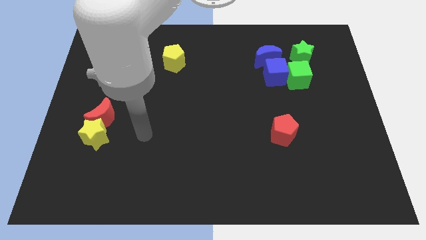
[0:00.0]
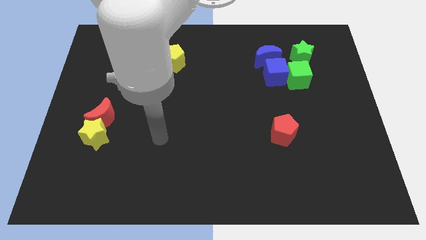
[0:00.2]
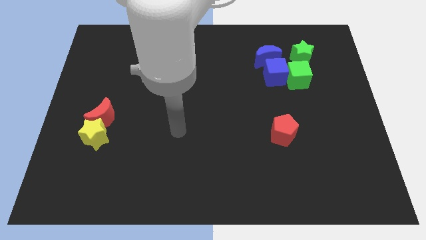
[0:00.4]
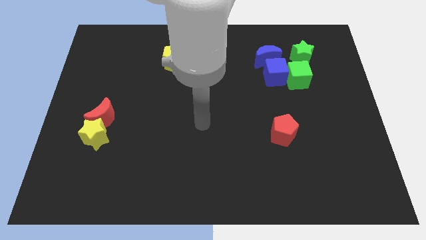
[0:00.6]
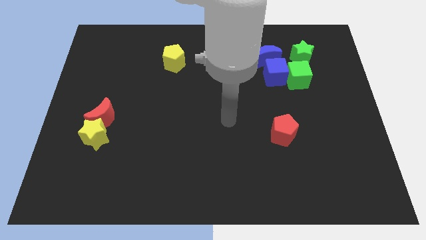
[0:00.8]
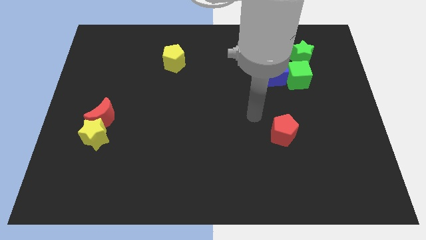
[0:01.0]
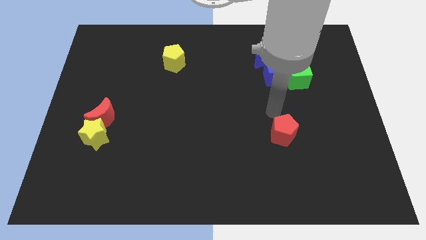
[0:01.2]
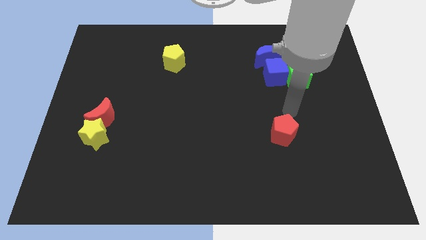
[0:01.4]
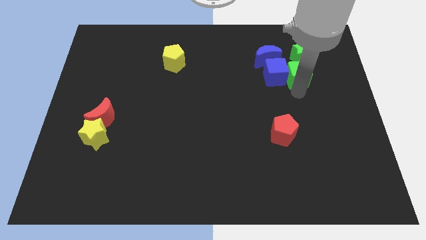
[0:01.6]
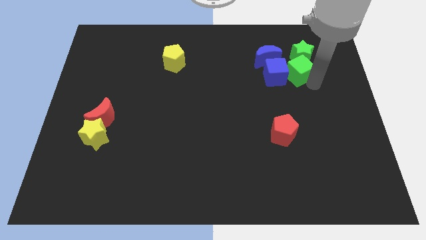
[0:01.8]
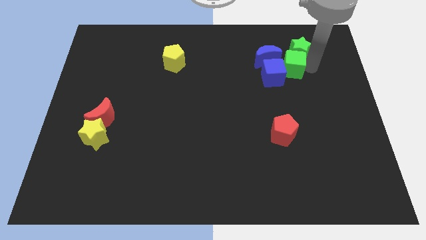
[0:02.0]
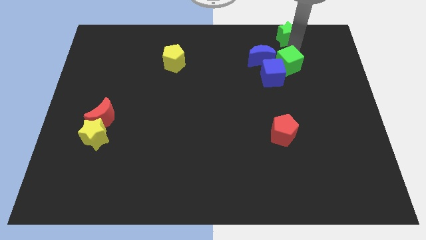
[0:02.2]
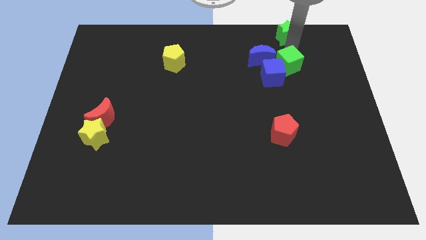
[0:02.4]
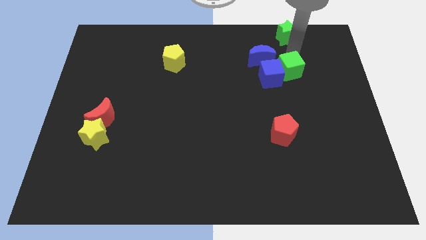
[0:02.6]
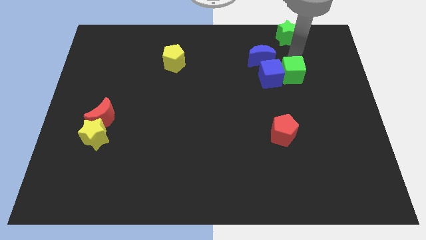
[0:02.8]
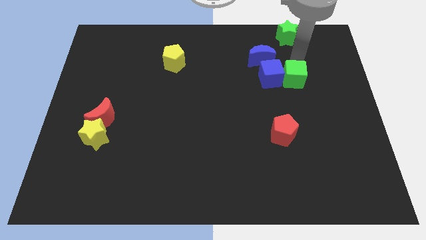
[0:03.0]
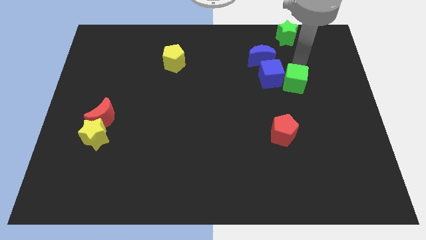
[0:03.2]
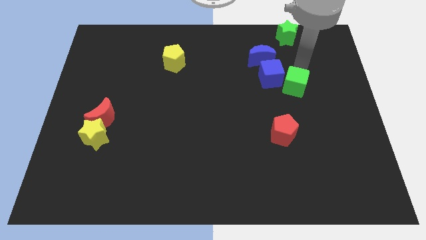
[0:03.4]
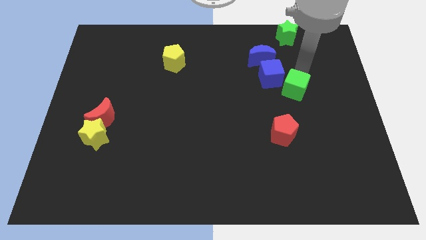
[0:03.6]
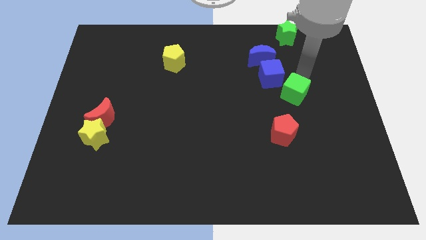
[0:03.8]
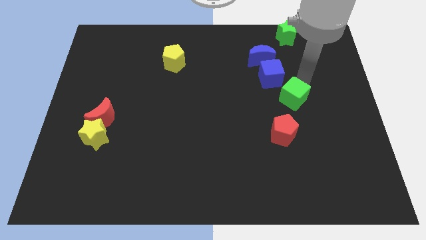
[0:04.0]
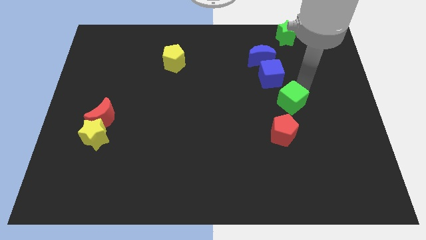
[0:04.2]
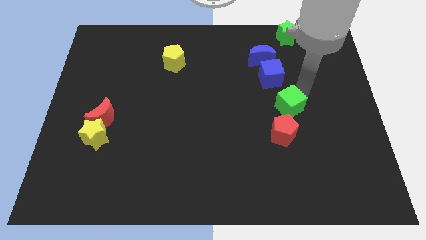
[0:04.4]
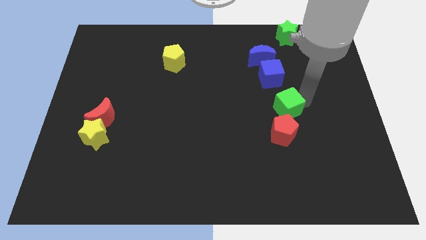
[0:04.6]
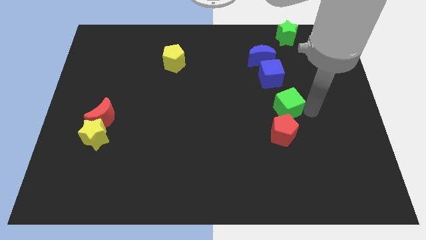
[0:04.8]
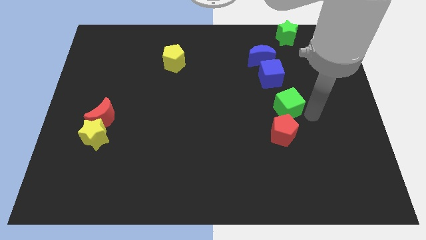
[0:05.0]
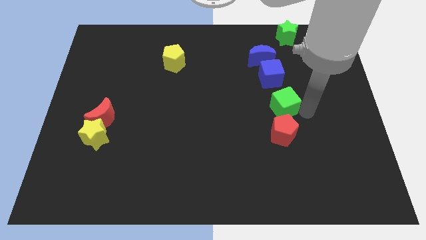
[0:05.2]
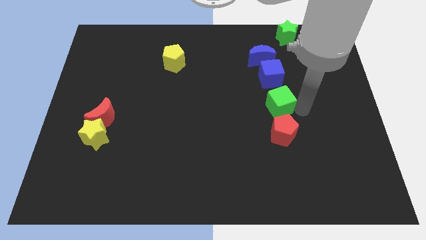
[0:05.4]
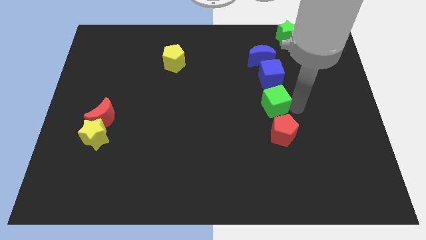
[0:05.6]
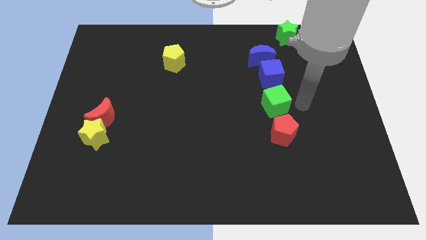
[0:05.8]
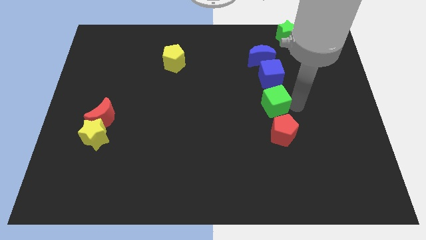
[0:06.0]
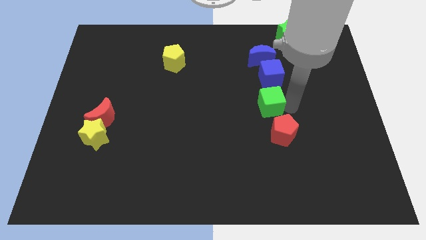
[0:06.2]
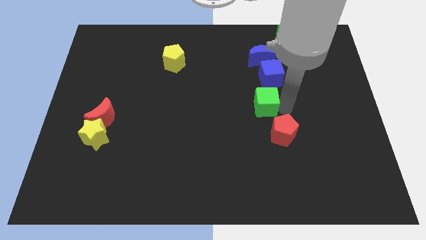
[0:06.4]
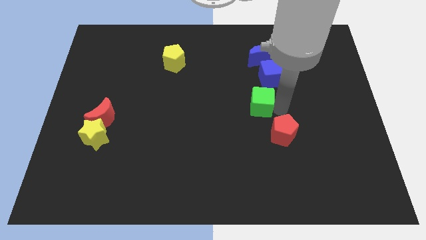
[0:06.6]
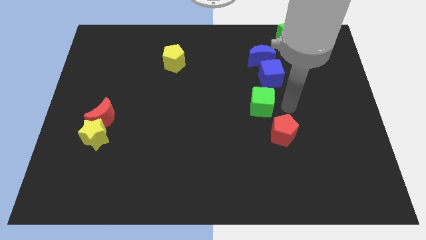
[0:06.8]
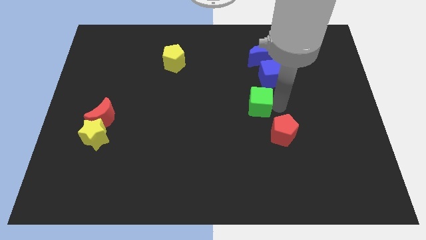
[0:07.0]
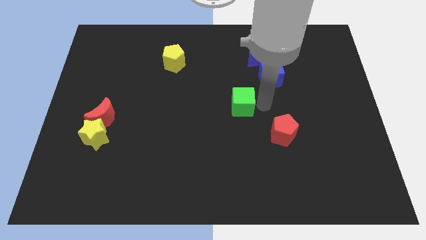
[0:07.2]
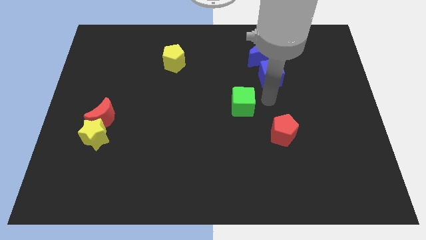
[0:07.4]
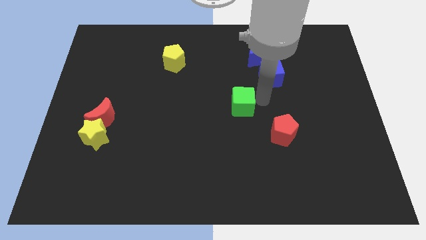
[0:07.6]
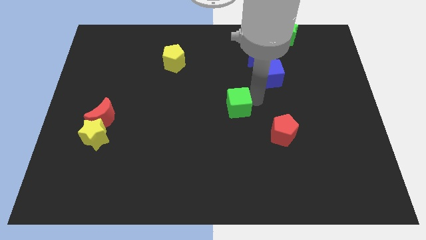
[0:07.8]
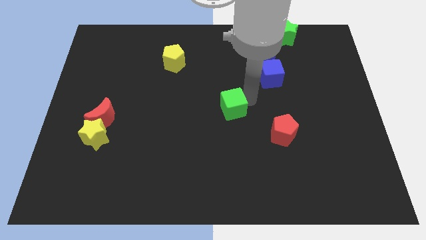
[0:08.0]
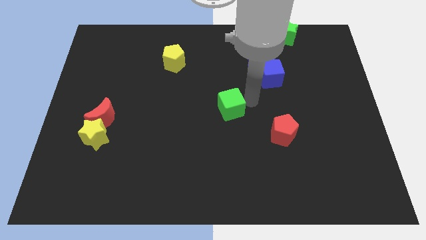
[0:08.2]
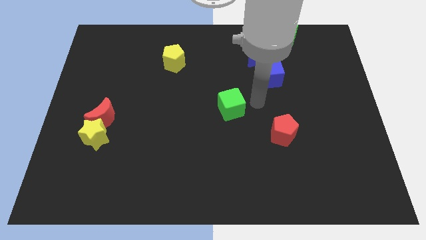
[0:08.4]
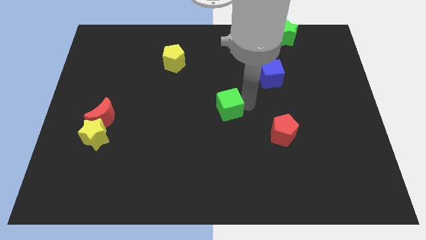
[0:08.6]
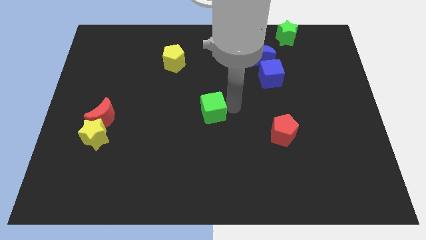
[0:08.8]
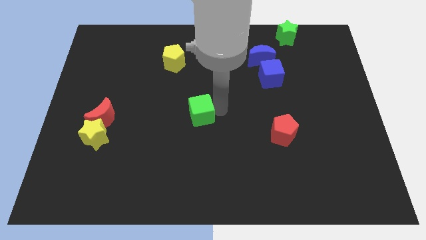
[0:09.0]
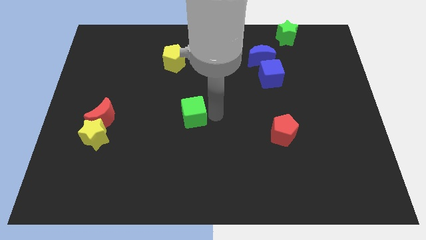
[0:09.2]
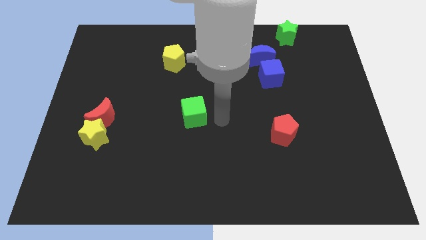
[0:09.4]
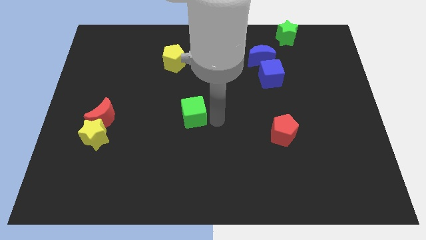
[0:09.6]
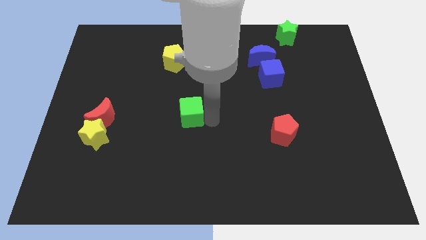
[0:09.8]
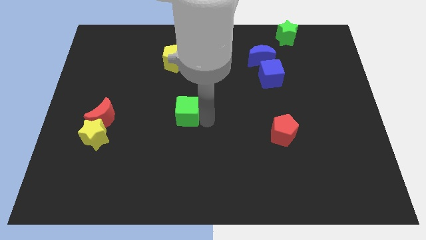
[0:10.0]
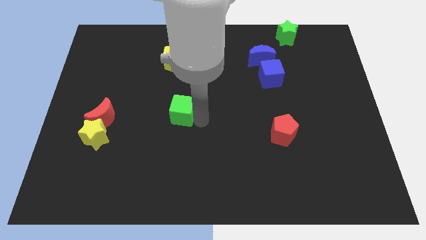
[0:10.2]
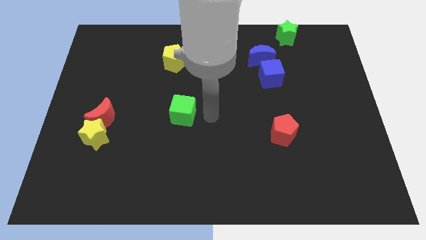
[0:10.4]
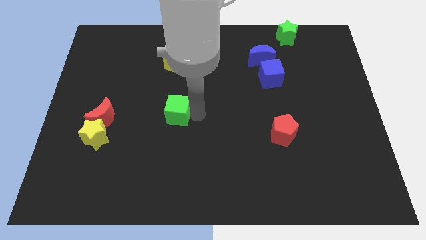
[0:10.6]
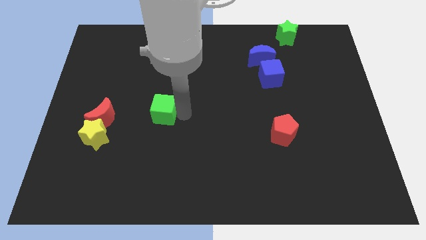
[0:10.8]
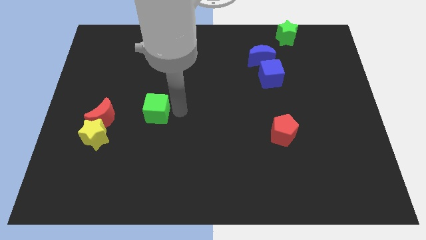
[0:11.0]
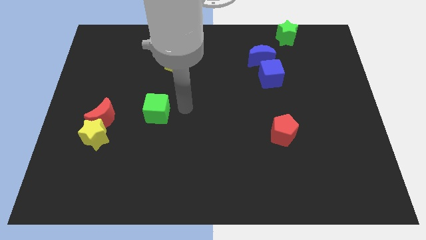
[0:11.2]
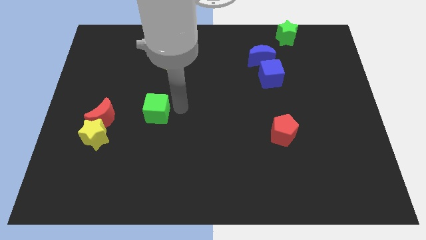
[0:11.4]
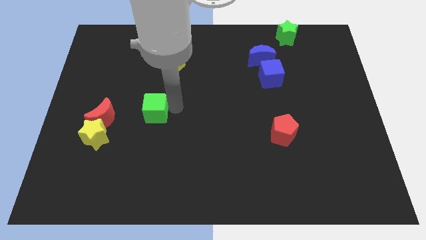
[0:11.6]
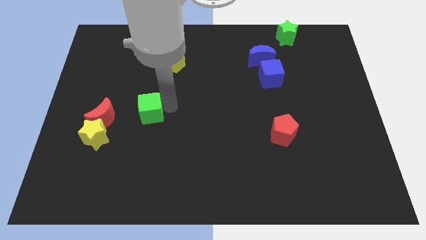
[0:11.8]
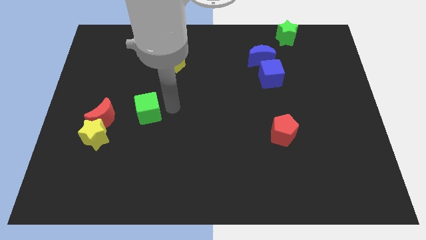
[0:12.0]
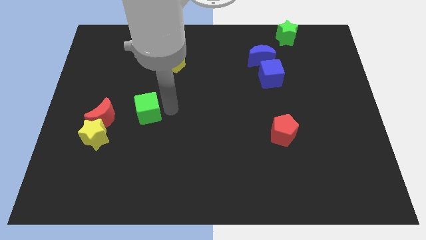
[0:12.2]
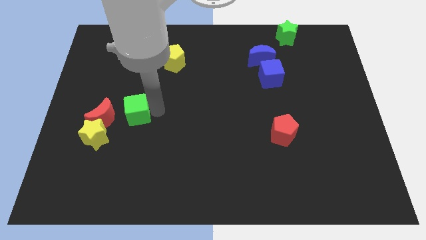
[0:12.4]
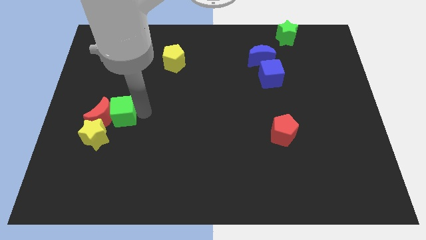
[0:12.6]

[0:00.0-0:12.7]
slide the green cube towards the red moon

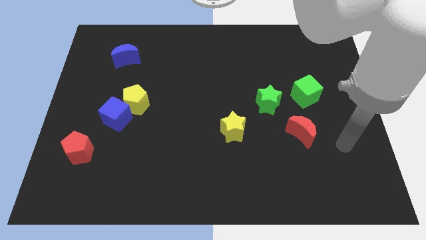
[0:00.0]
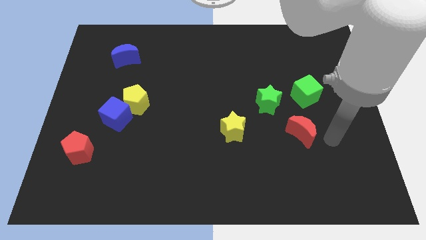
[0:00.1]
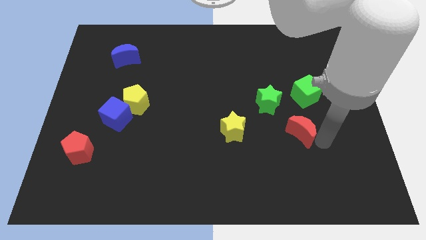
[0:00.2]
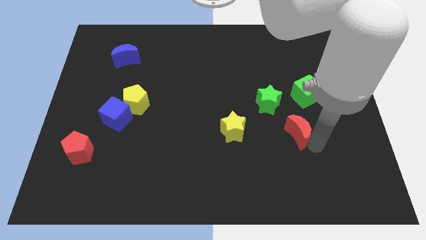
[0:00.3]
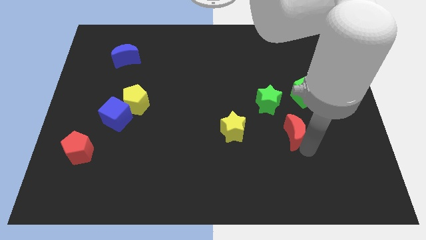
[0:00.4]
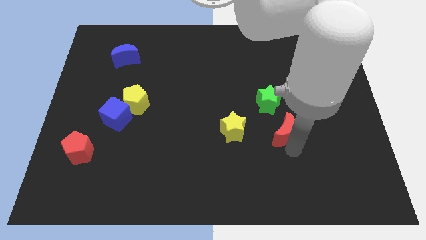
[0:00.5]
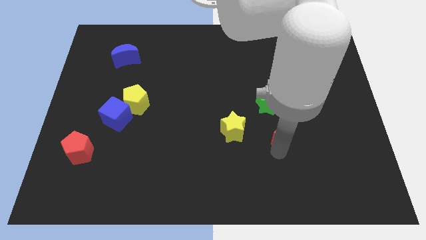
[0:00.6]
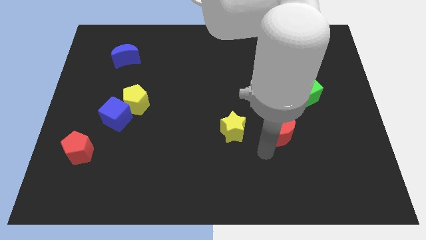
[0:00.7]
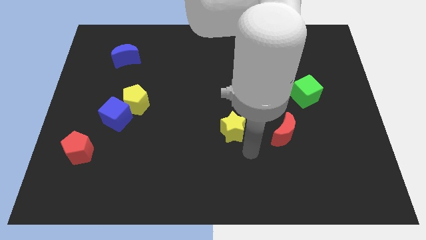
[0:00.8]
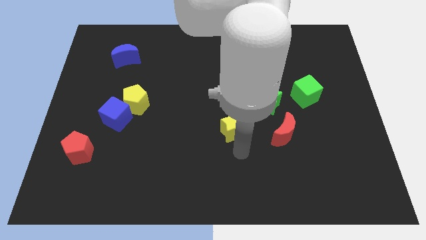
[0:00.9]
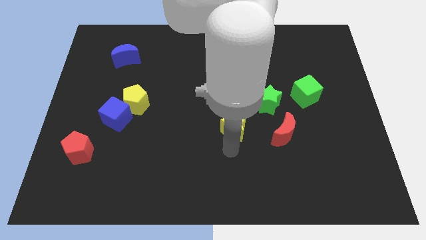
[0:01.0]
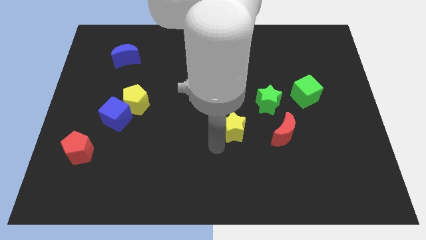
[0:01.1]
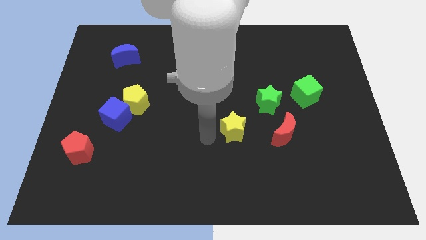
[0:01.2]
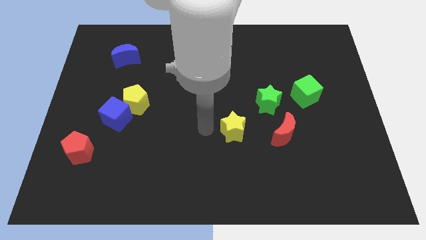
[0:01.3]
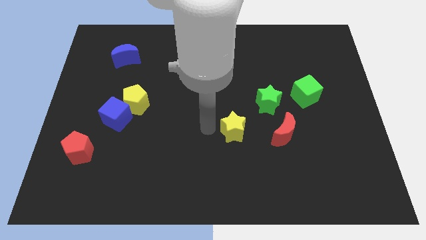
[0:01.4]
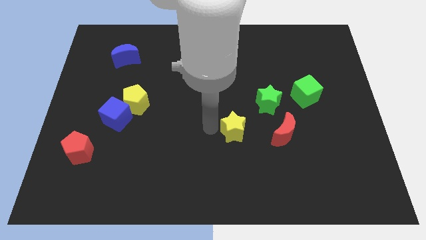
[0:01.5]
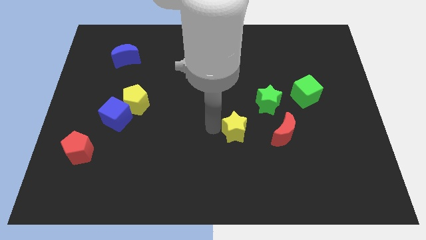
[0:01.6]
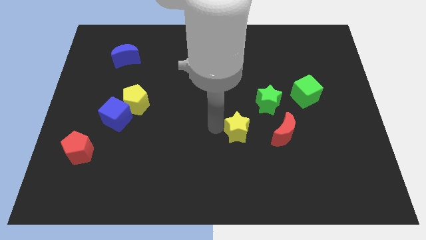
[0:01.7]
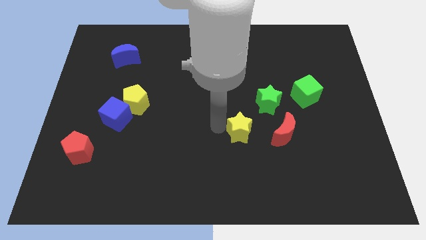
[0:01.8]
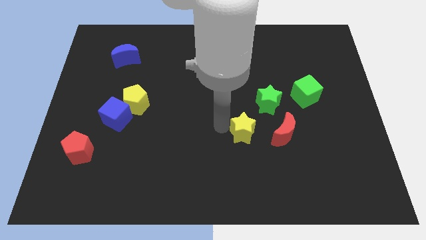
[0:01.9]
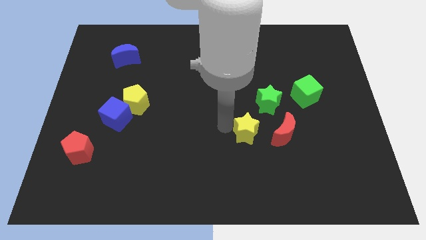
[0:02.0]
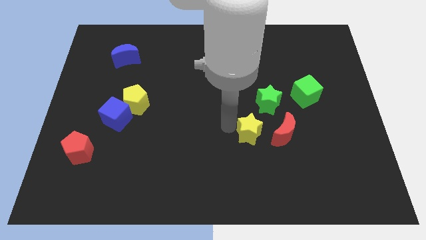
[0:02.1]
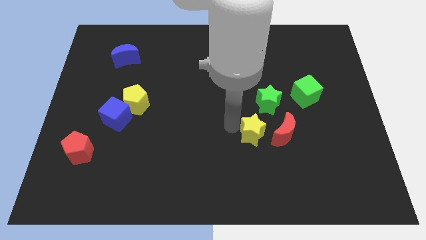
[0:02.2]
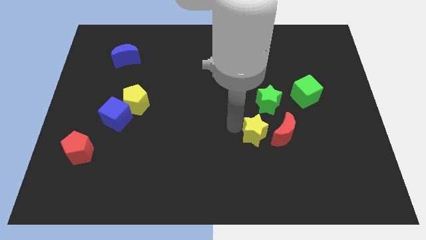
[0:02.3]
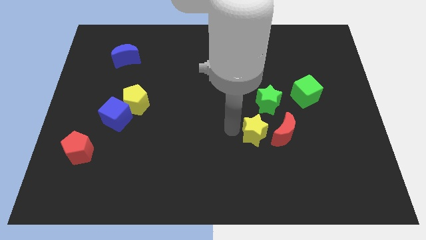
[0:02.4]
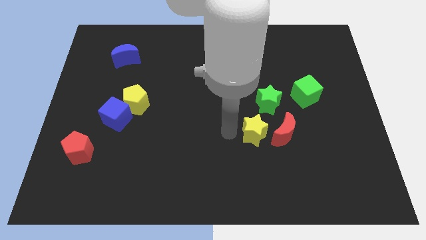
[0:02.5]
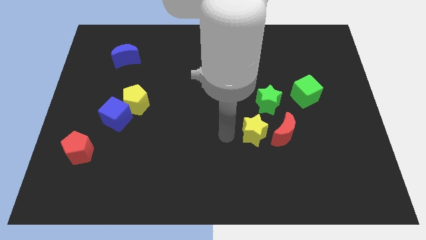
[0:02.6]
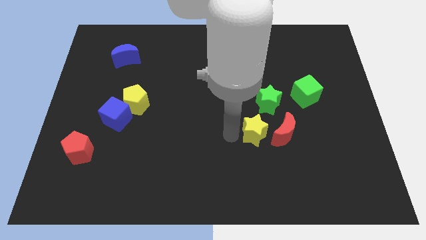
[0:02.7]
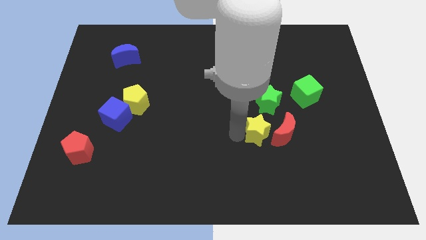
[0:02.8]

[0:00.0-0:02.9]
put the yellow star next to the red moon
